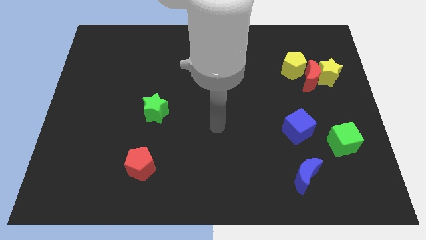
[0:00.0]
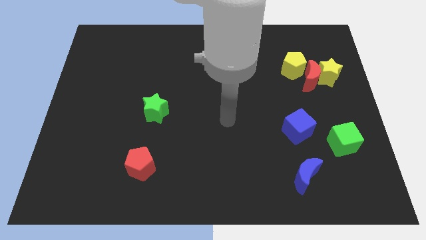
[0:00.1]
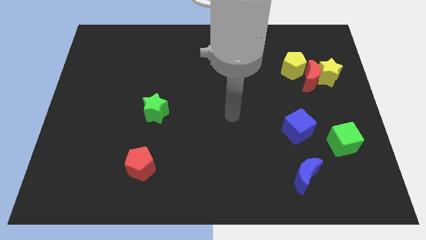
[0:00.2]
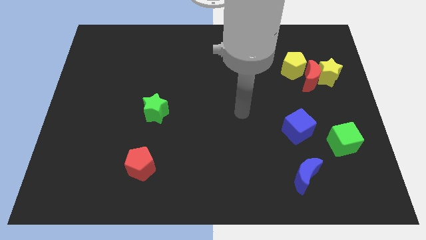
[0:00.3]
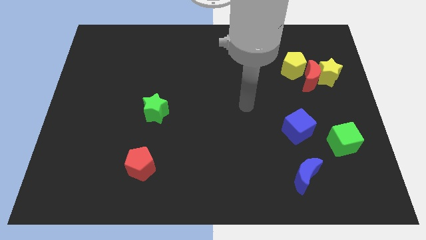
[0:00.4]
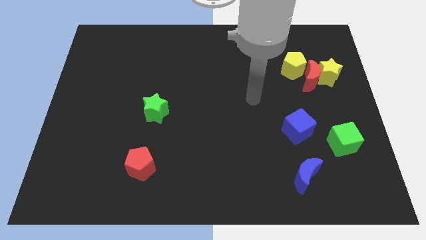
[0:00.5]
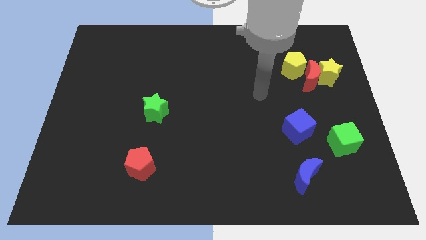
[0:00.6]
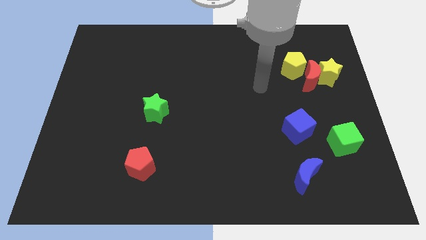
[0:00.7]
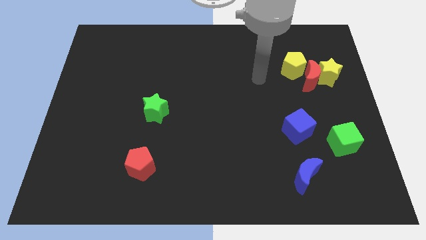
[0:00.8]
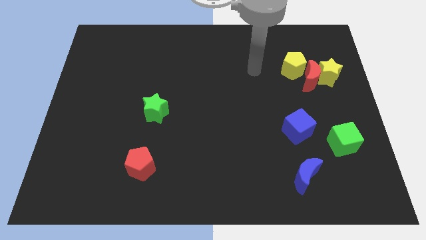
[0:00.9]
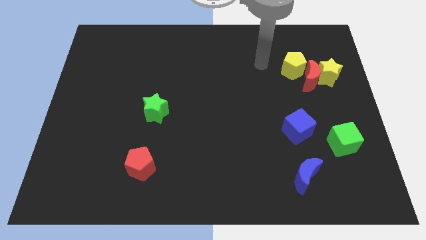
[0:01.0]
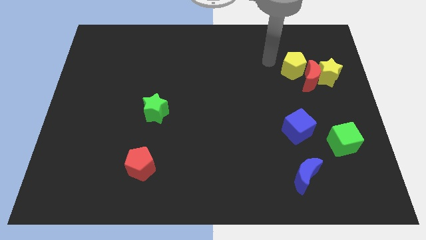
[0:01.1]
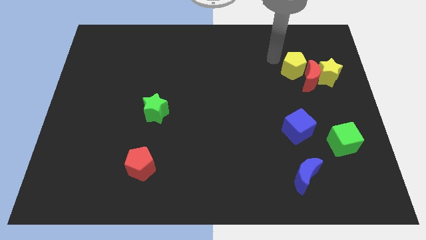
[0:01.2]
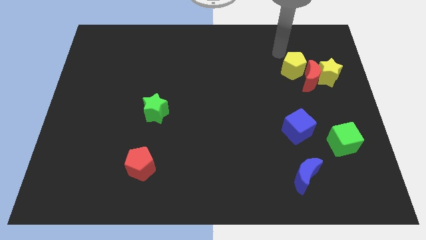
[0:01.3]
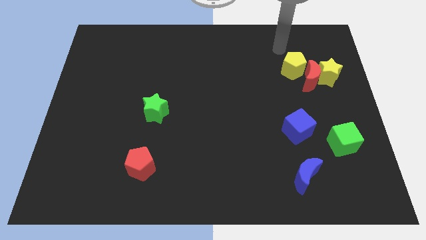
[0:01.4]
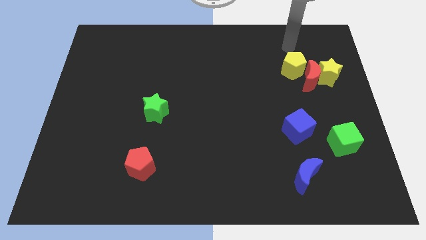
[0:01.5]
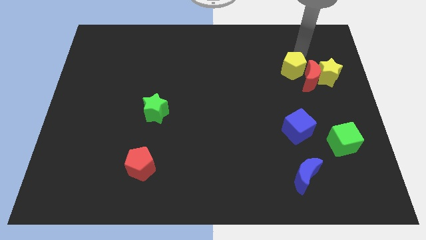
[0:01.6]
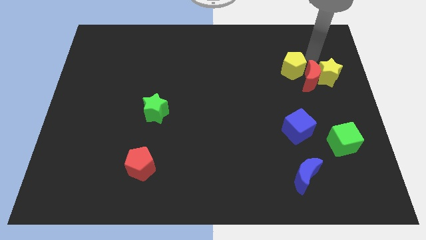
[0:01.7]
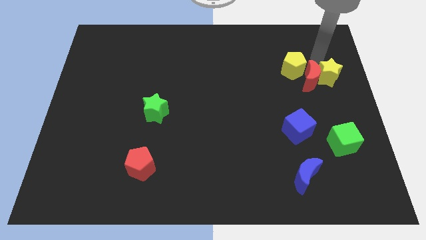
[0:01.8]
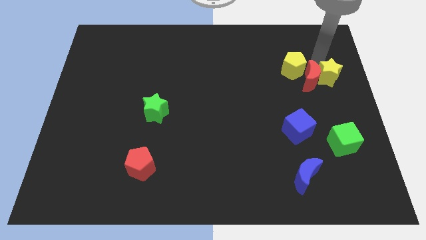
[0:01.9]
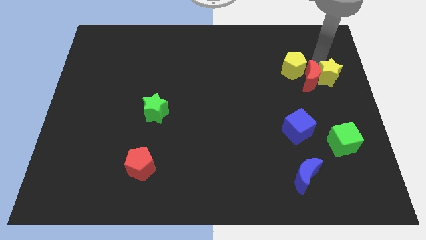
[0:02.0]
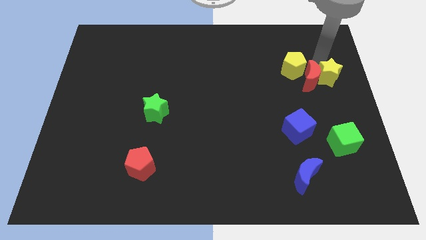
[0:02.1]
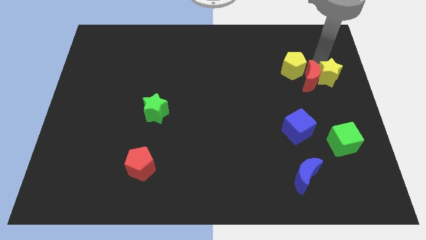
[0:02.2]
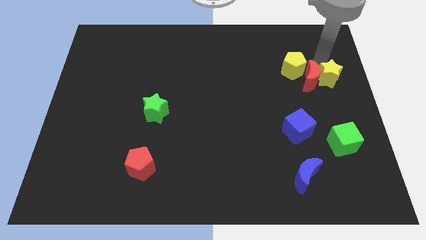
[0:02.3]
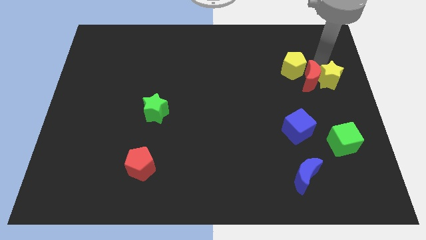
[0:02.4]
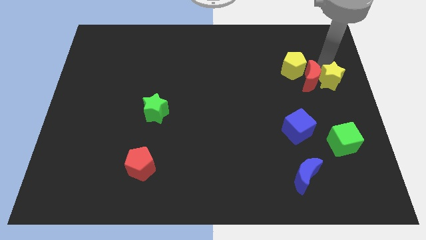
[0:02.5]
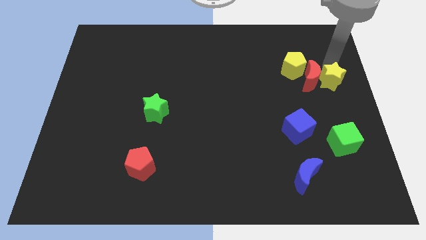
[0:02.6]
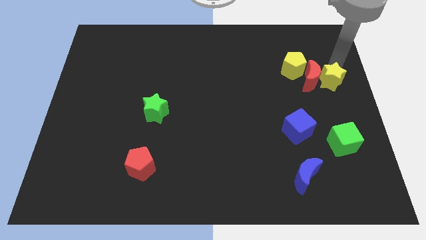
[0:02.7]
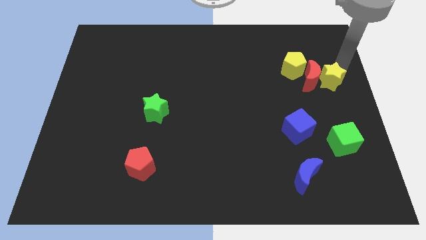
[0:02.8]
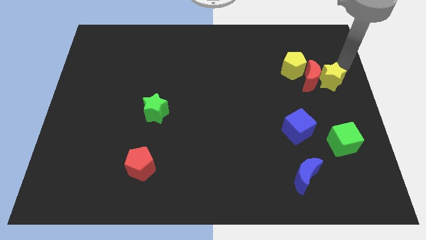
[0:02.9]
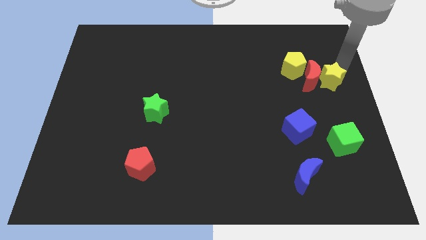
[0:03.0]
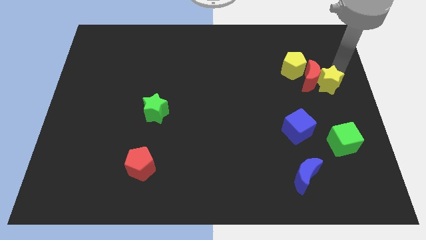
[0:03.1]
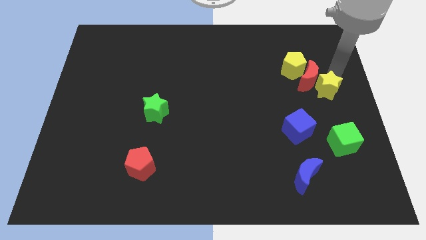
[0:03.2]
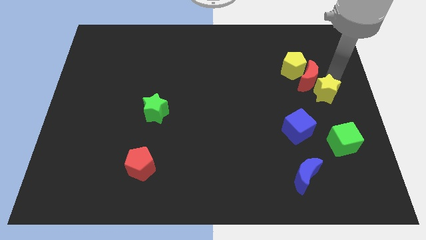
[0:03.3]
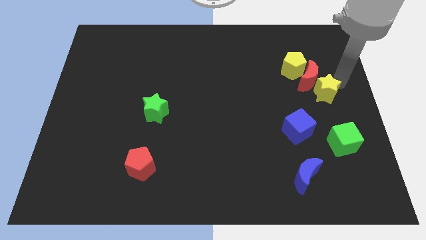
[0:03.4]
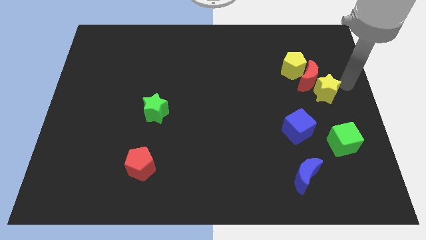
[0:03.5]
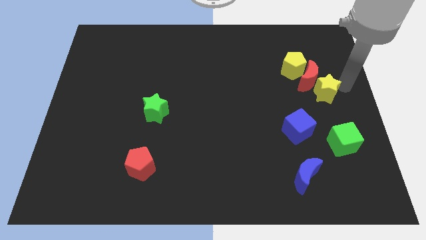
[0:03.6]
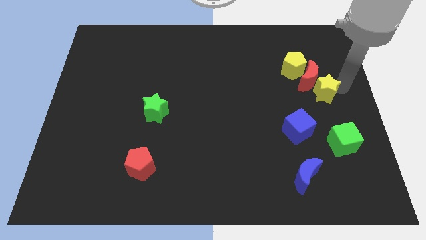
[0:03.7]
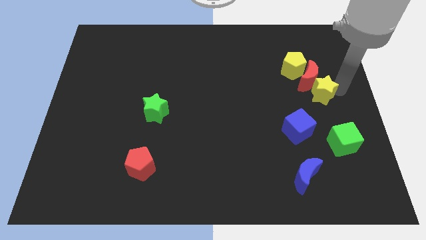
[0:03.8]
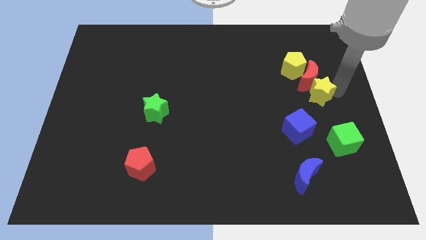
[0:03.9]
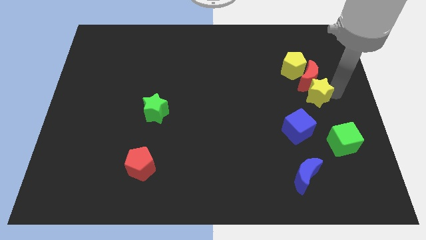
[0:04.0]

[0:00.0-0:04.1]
slide the yellow star somewhat diagonally down and to the left

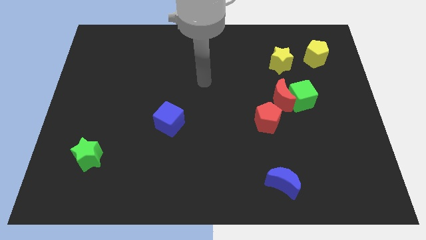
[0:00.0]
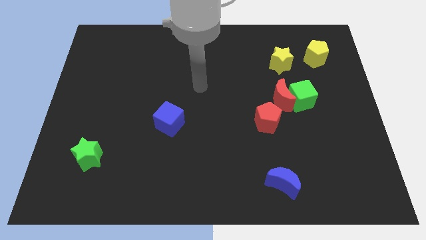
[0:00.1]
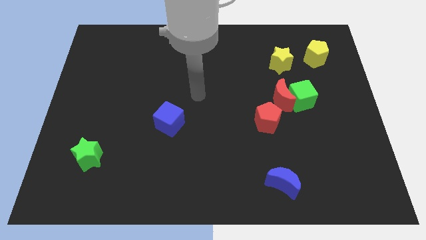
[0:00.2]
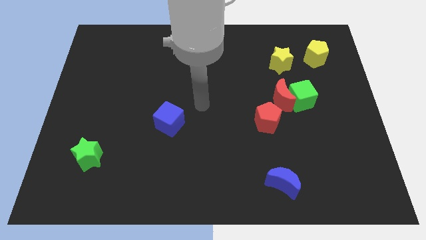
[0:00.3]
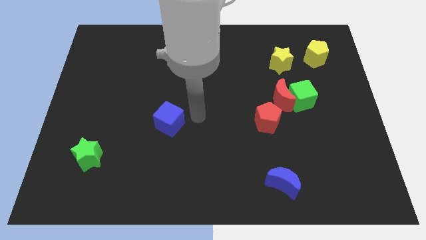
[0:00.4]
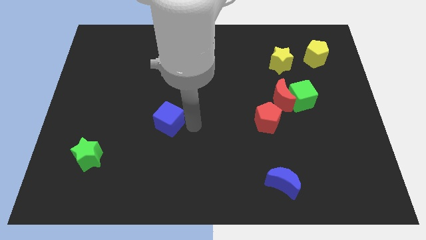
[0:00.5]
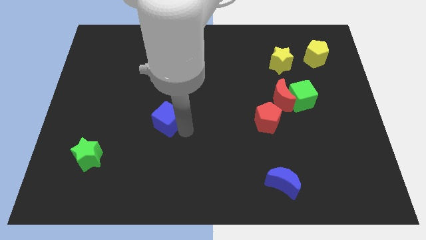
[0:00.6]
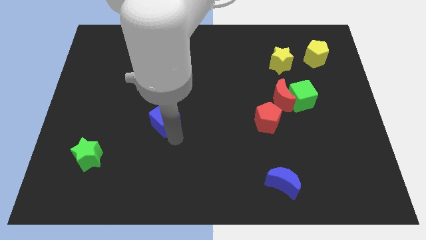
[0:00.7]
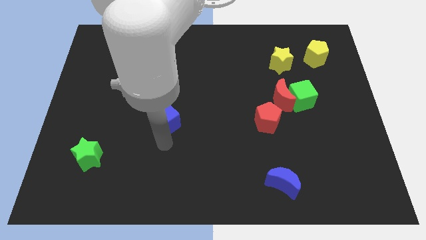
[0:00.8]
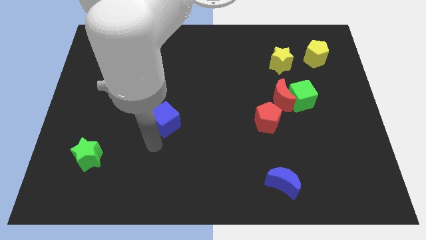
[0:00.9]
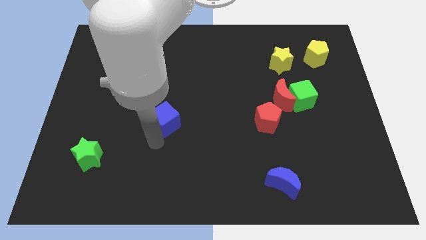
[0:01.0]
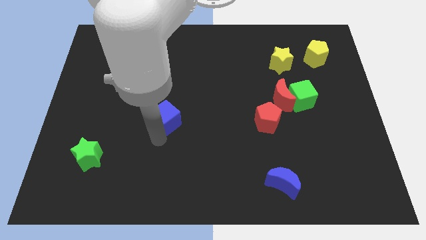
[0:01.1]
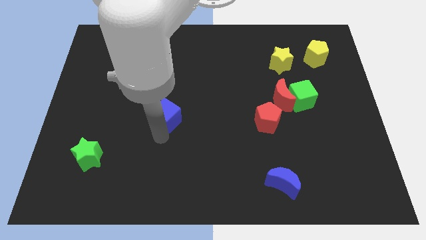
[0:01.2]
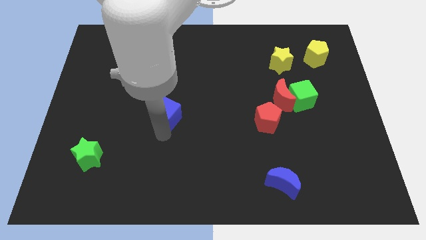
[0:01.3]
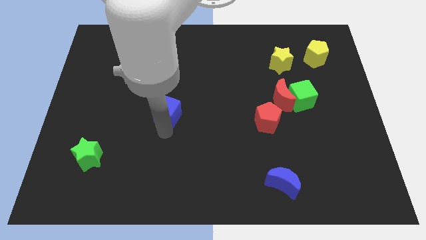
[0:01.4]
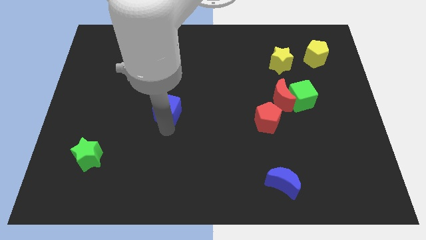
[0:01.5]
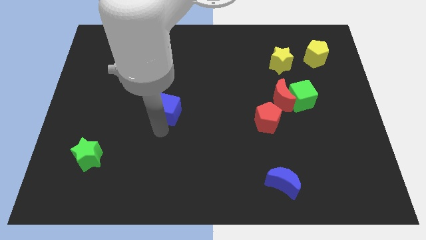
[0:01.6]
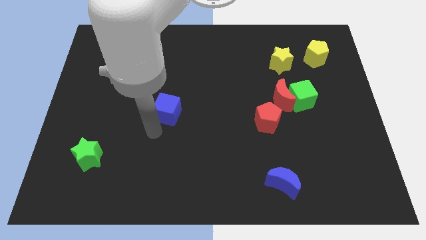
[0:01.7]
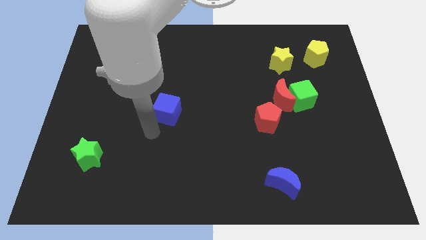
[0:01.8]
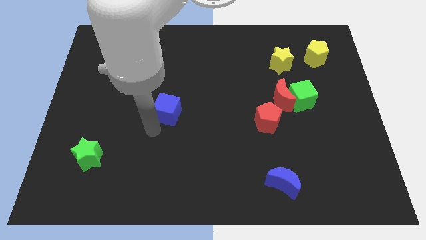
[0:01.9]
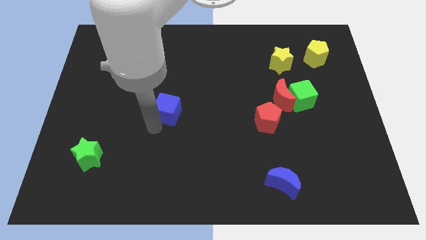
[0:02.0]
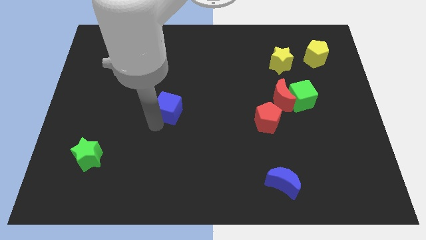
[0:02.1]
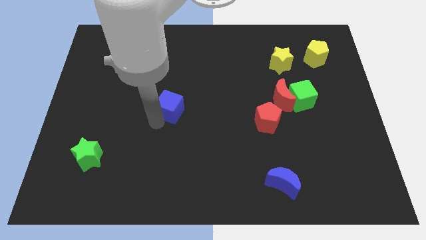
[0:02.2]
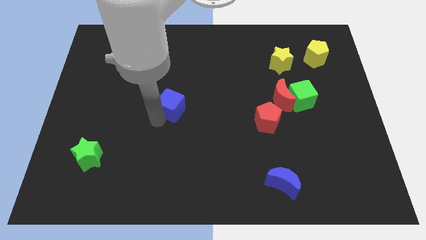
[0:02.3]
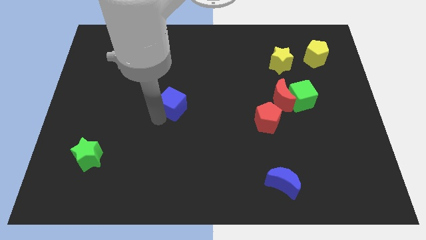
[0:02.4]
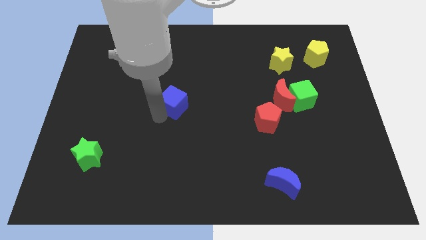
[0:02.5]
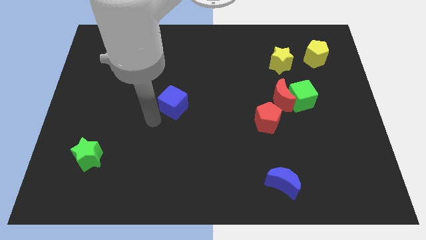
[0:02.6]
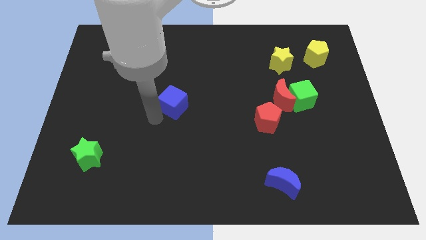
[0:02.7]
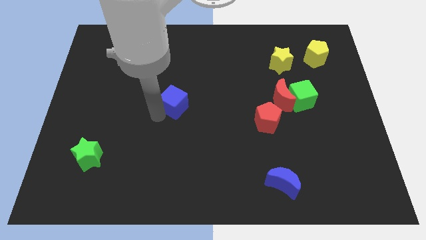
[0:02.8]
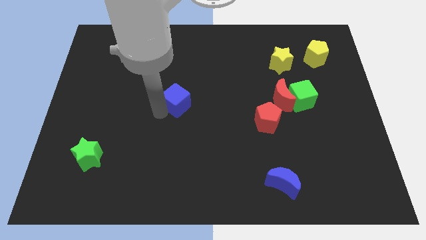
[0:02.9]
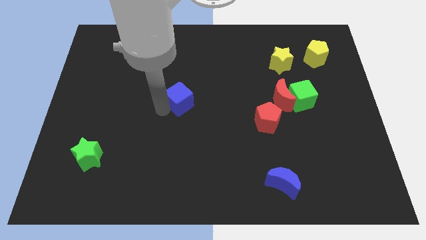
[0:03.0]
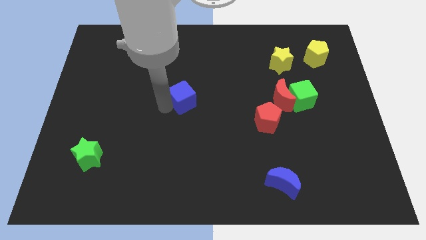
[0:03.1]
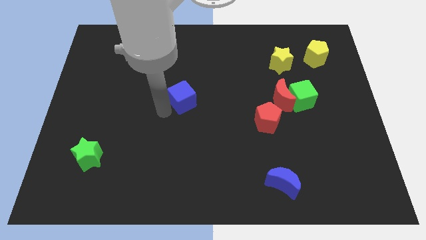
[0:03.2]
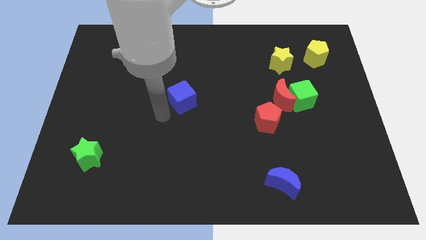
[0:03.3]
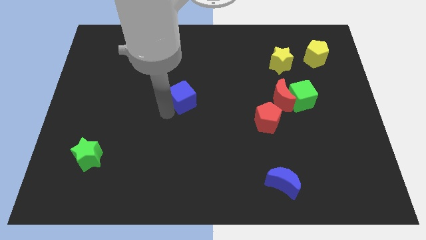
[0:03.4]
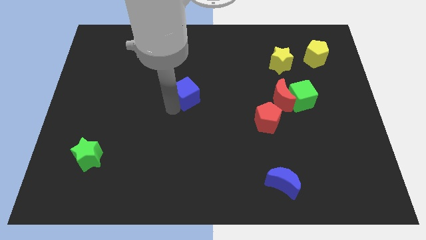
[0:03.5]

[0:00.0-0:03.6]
slightly push the blue cube upwards and right diagonally

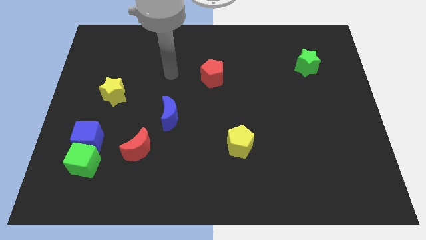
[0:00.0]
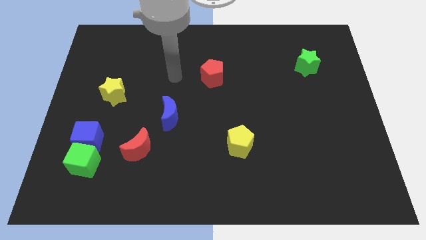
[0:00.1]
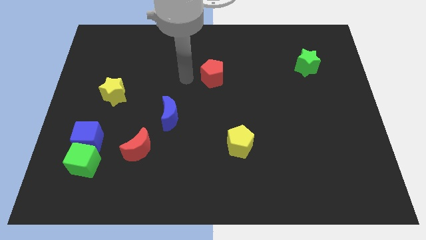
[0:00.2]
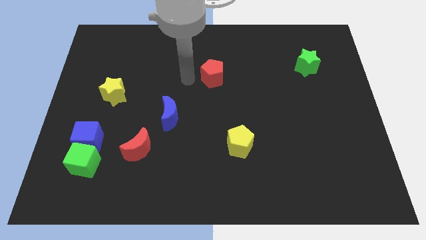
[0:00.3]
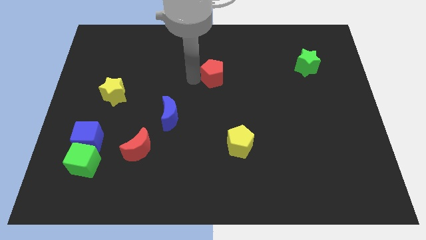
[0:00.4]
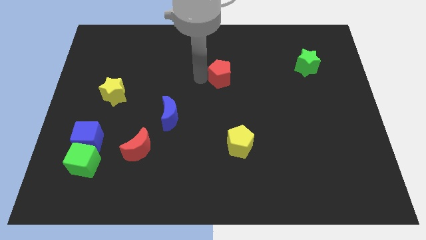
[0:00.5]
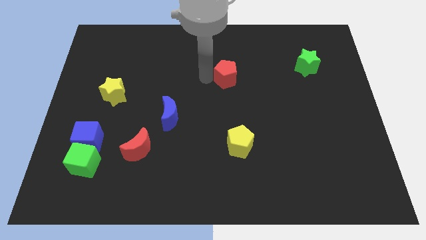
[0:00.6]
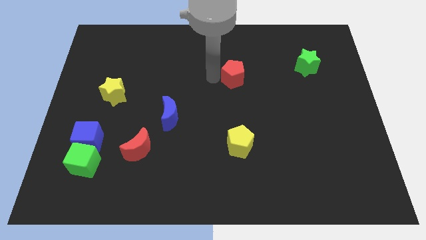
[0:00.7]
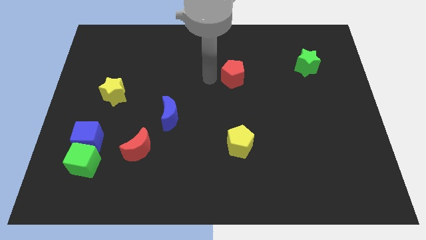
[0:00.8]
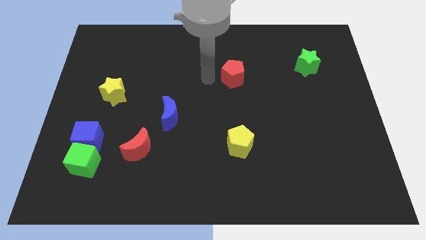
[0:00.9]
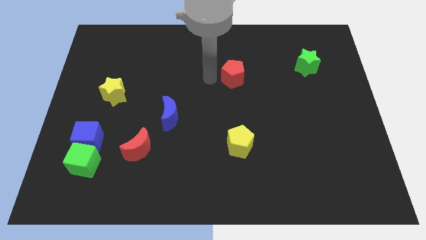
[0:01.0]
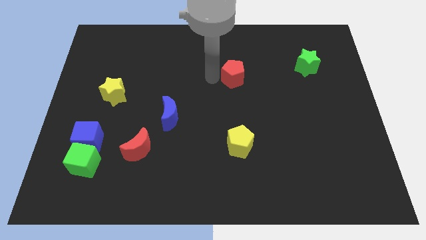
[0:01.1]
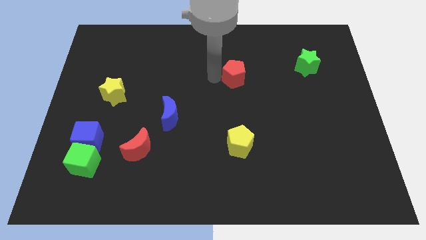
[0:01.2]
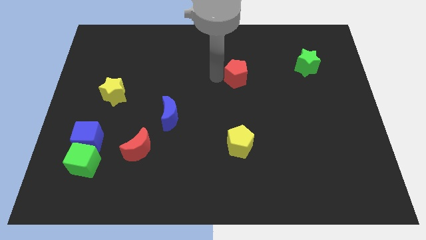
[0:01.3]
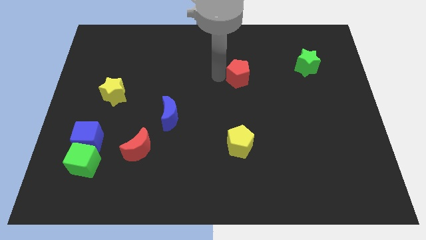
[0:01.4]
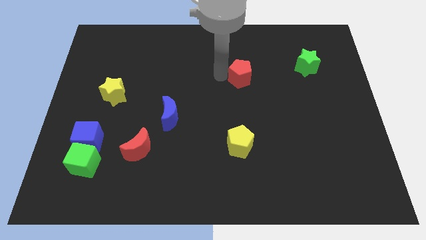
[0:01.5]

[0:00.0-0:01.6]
push the red pentagon a little to the right
